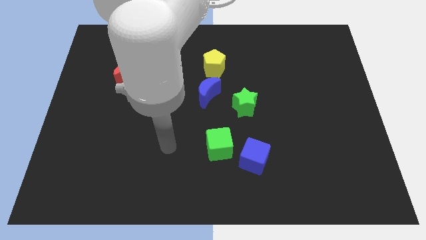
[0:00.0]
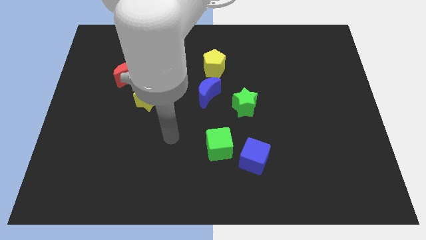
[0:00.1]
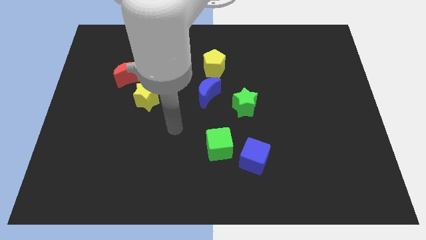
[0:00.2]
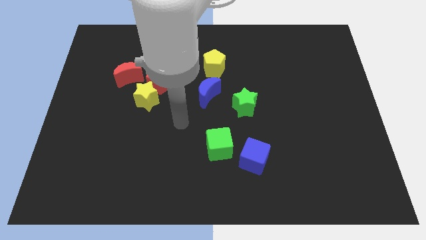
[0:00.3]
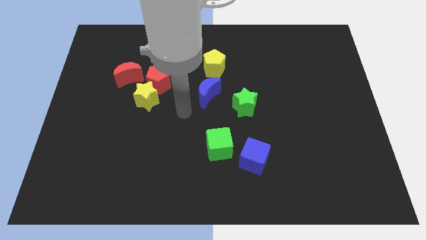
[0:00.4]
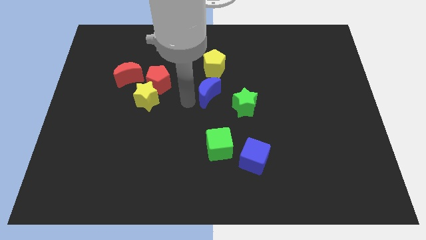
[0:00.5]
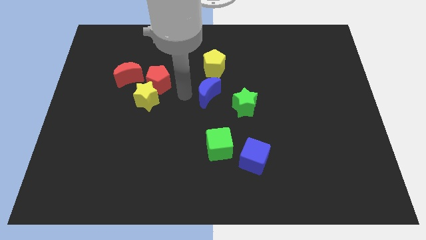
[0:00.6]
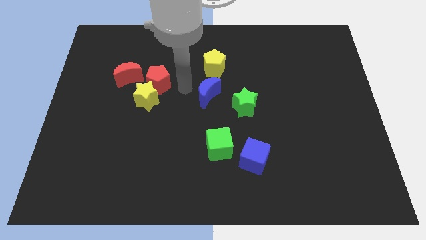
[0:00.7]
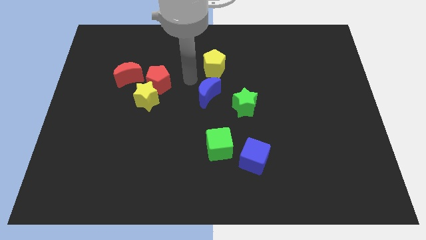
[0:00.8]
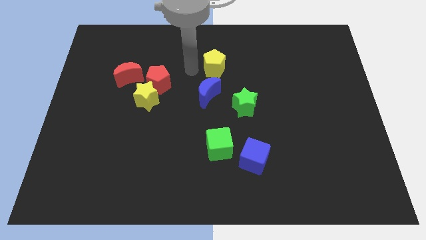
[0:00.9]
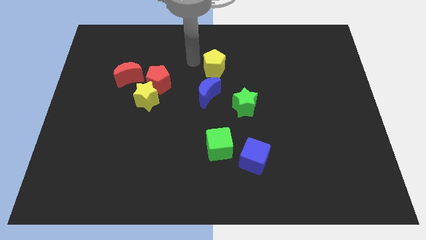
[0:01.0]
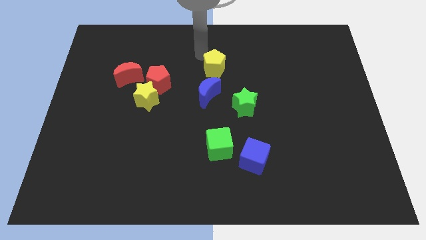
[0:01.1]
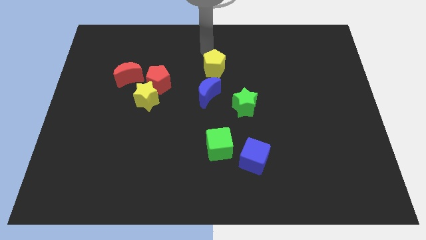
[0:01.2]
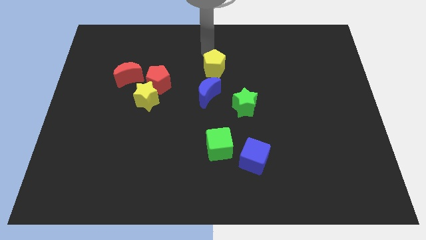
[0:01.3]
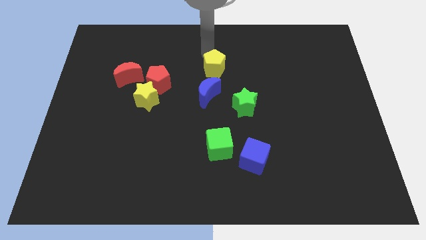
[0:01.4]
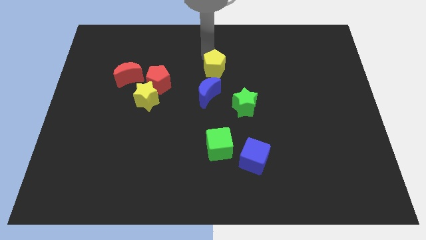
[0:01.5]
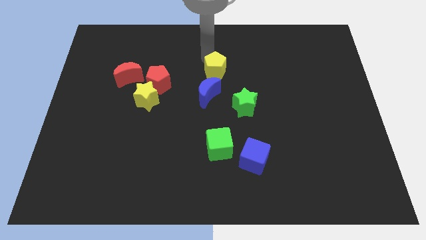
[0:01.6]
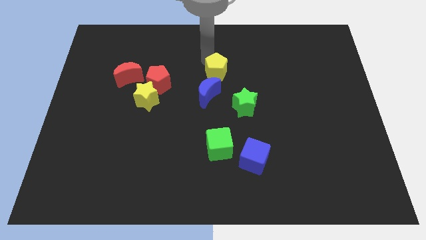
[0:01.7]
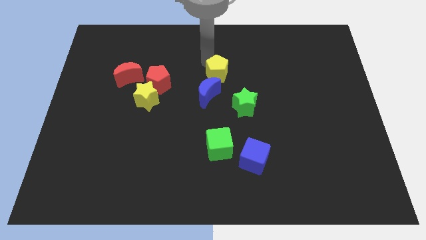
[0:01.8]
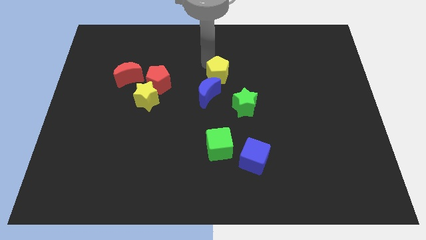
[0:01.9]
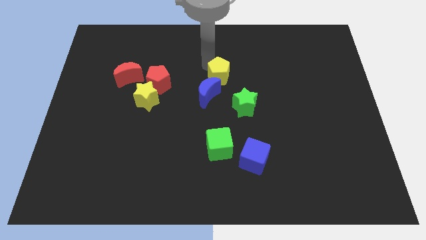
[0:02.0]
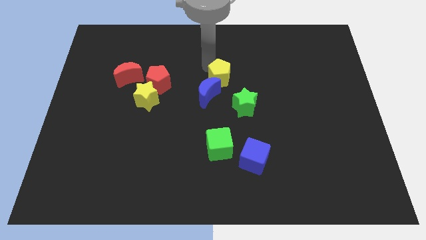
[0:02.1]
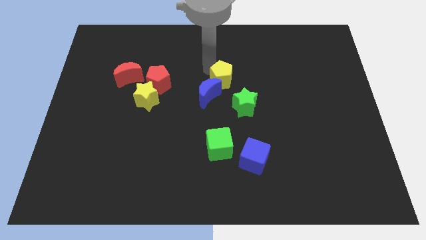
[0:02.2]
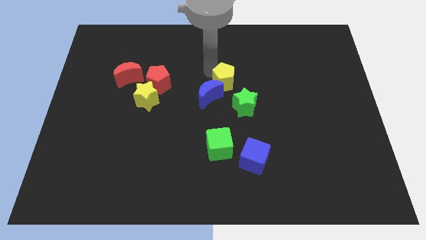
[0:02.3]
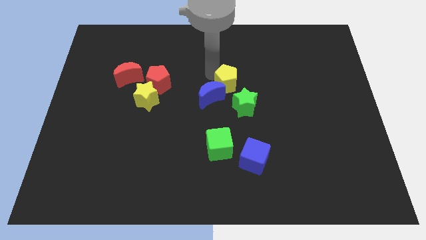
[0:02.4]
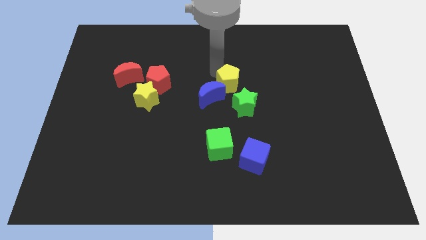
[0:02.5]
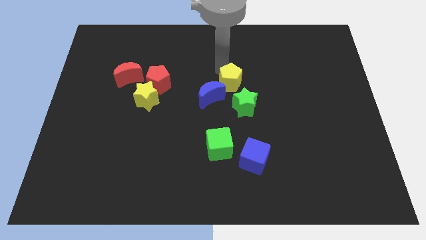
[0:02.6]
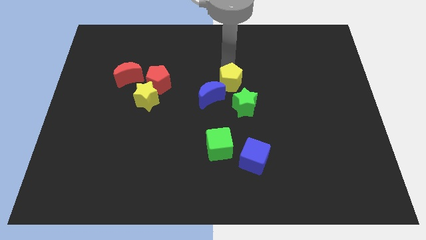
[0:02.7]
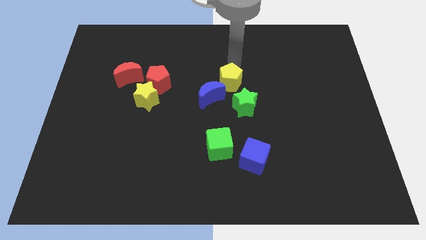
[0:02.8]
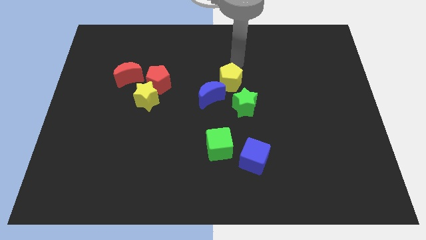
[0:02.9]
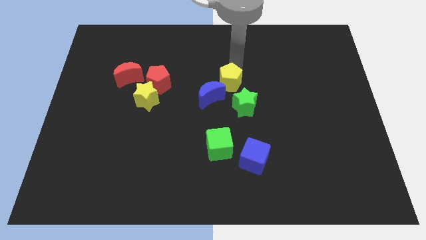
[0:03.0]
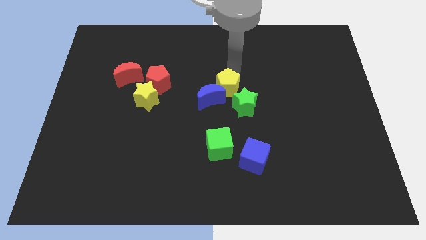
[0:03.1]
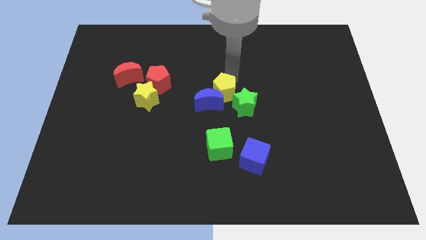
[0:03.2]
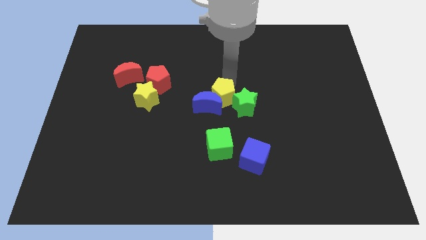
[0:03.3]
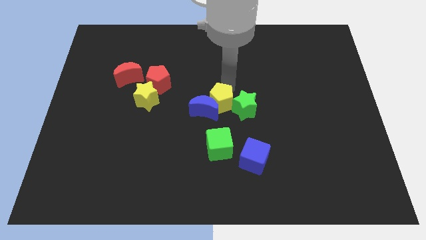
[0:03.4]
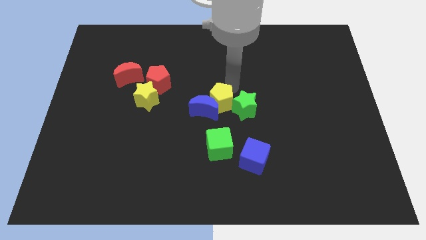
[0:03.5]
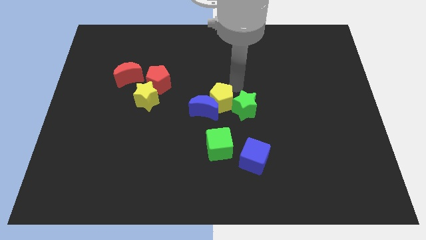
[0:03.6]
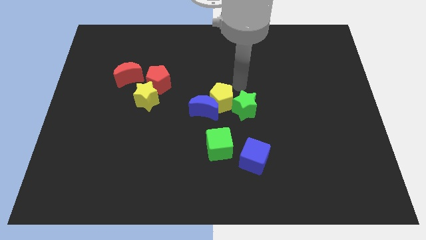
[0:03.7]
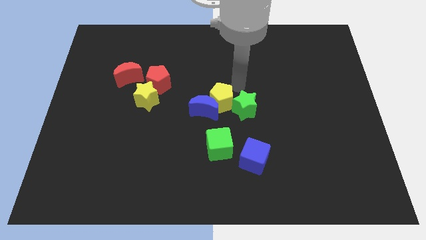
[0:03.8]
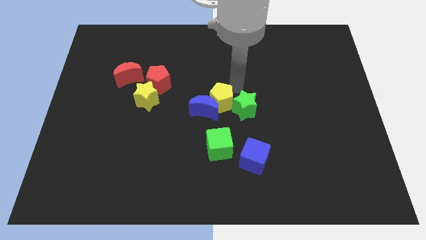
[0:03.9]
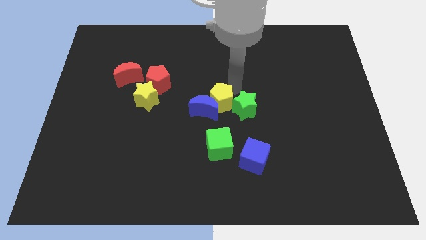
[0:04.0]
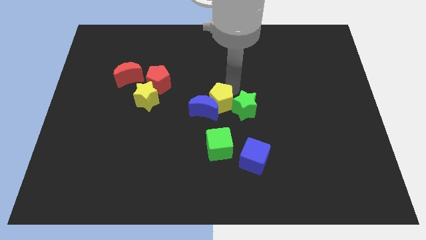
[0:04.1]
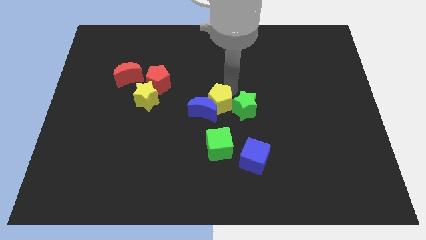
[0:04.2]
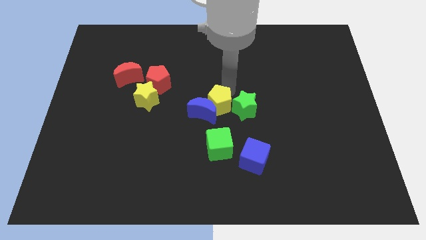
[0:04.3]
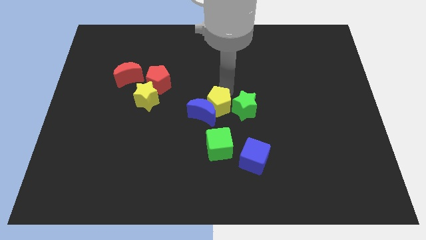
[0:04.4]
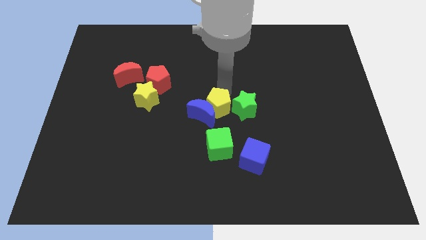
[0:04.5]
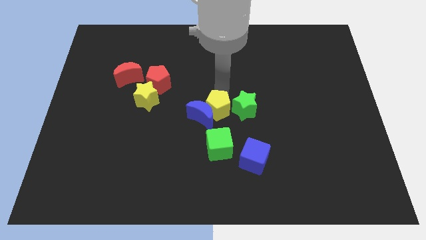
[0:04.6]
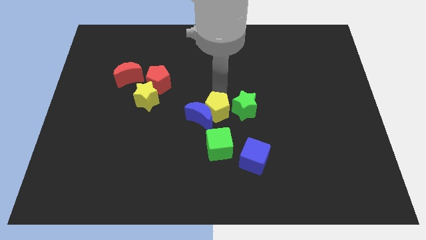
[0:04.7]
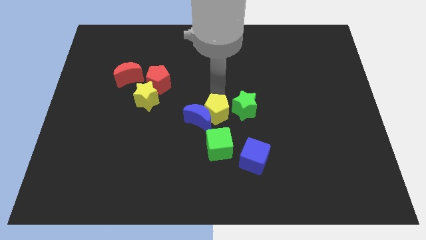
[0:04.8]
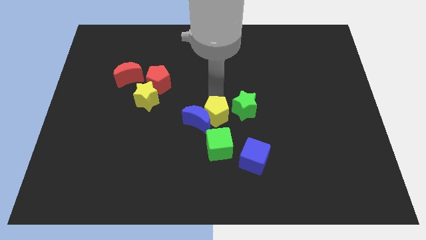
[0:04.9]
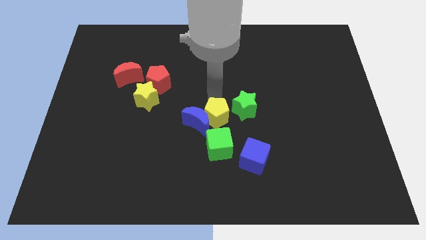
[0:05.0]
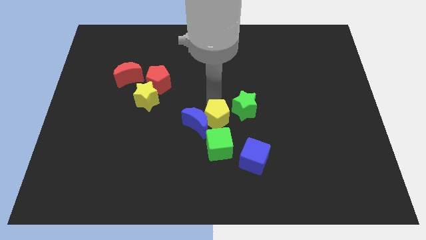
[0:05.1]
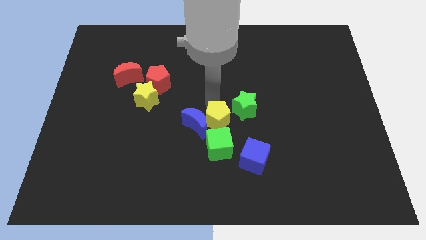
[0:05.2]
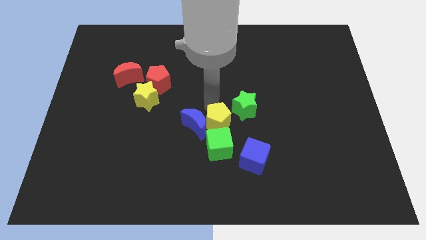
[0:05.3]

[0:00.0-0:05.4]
put the yellow pentagon to the top right of the green cube

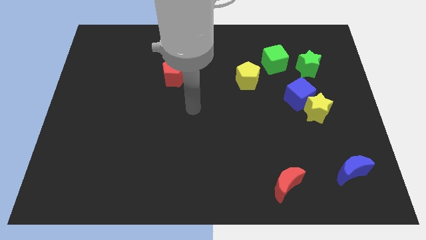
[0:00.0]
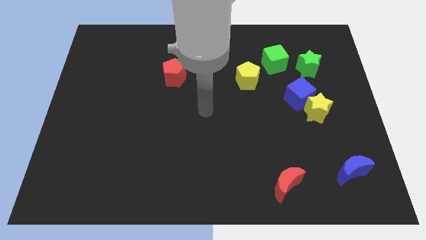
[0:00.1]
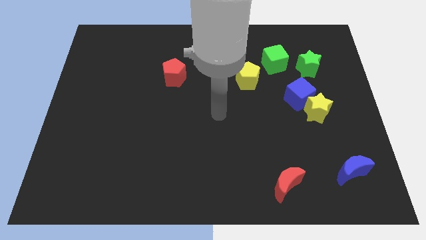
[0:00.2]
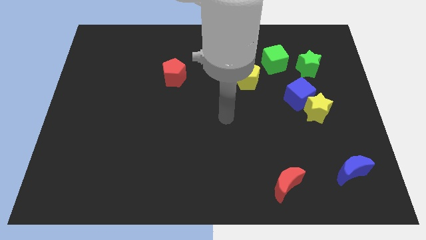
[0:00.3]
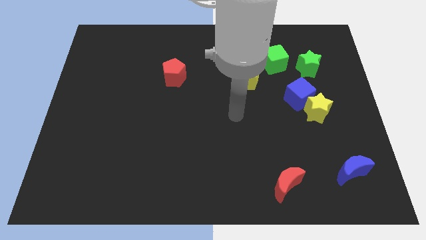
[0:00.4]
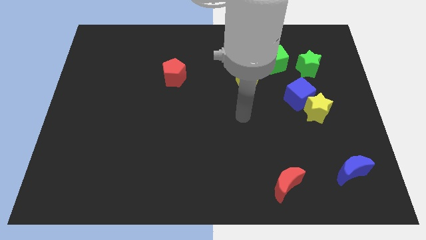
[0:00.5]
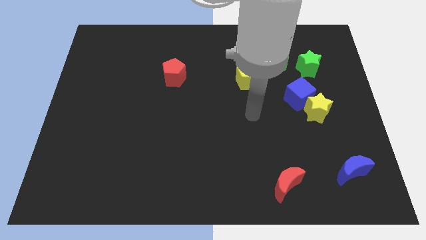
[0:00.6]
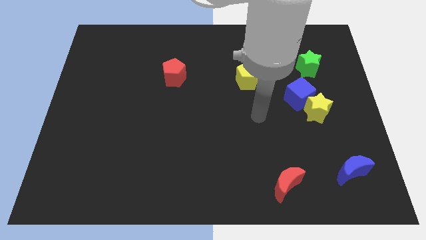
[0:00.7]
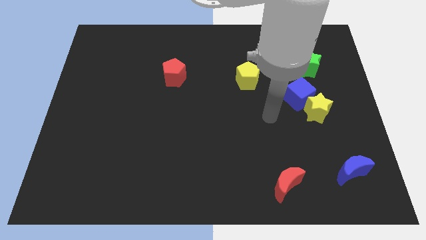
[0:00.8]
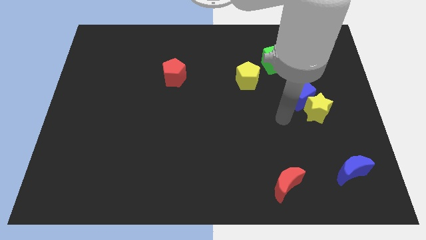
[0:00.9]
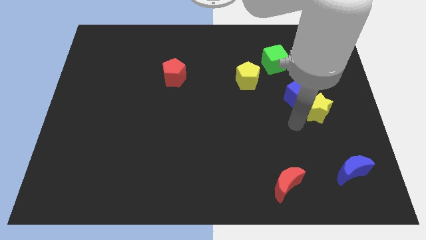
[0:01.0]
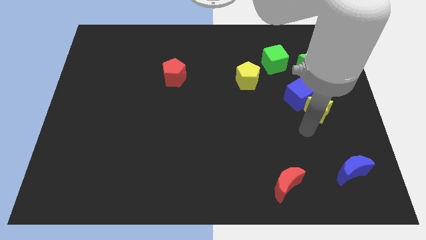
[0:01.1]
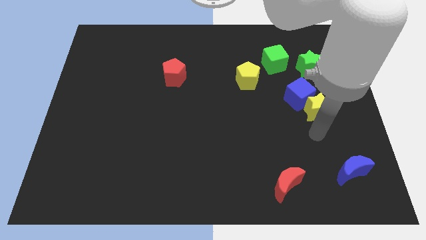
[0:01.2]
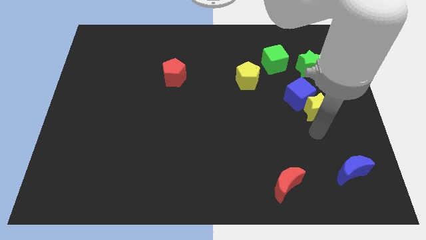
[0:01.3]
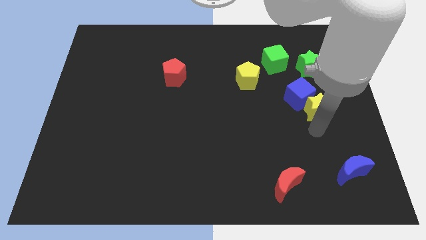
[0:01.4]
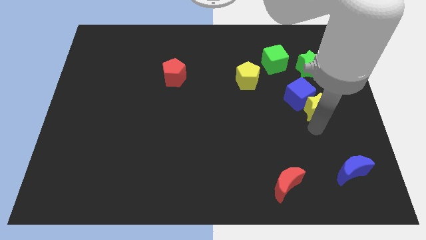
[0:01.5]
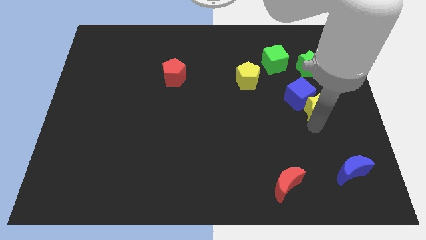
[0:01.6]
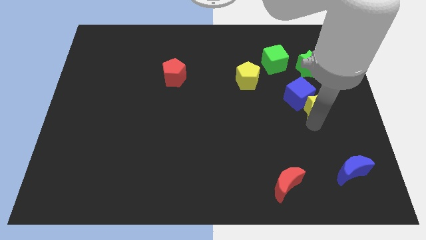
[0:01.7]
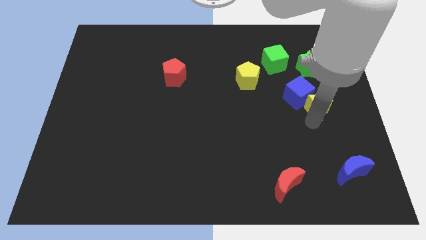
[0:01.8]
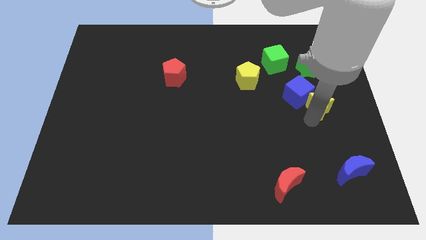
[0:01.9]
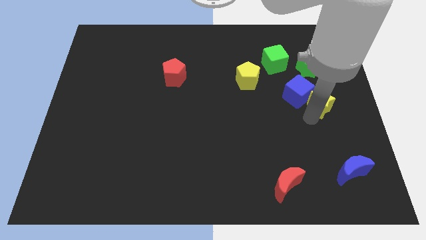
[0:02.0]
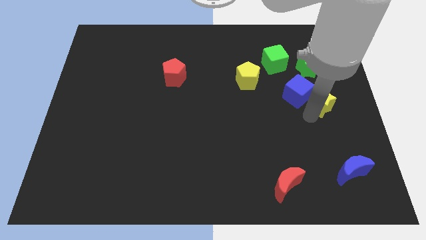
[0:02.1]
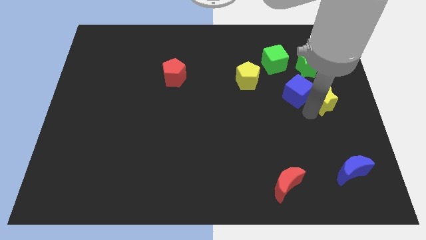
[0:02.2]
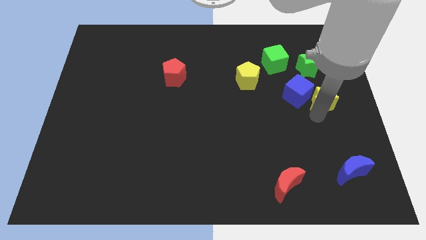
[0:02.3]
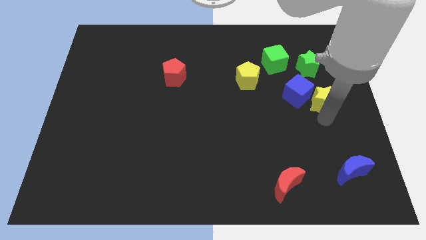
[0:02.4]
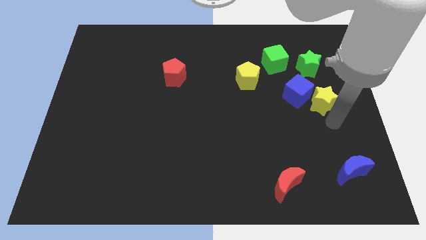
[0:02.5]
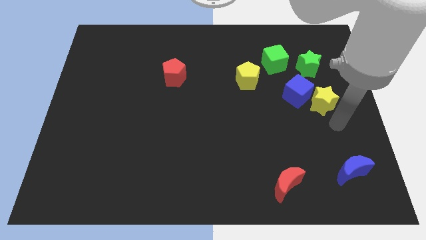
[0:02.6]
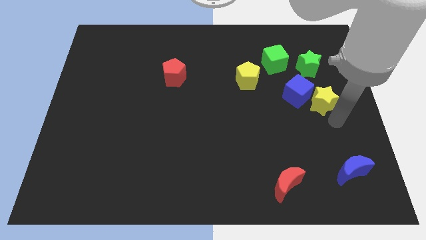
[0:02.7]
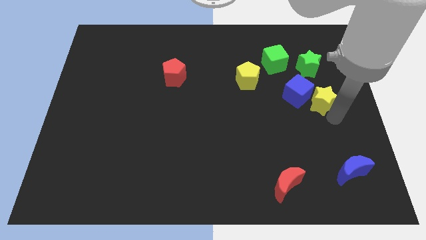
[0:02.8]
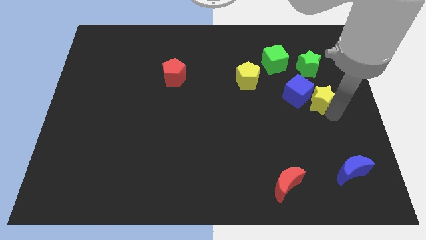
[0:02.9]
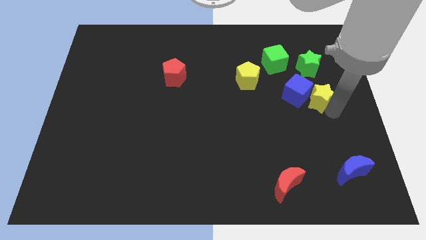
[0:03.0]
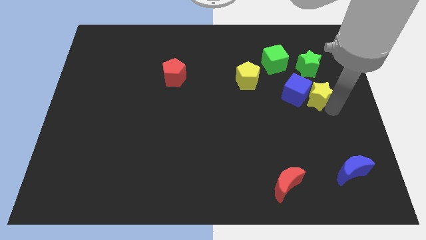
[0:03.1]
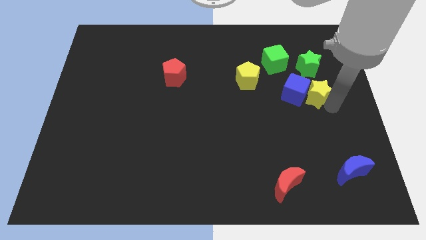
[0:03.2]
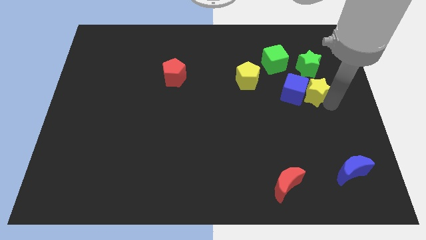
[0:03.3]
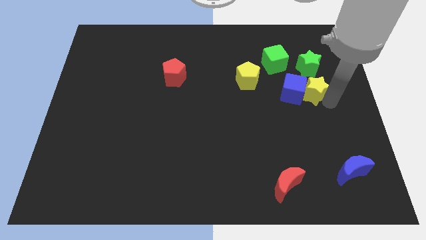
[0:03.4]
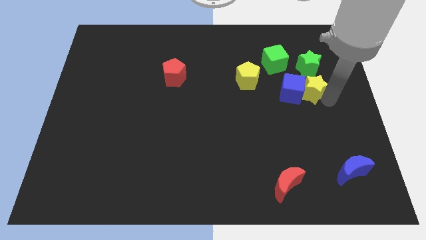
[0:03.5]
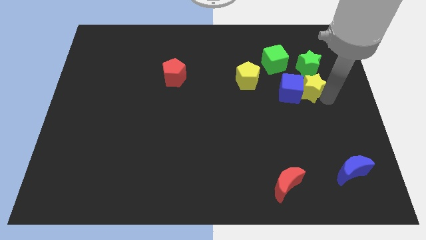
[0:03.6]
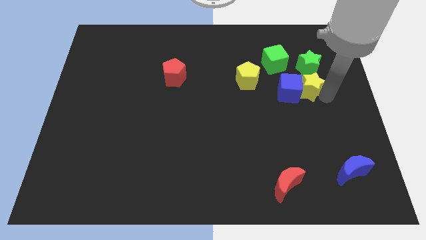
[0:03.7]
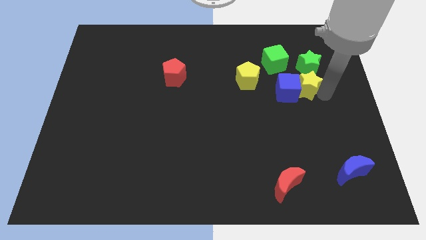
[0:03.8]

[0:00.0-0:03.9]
move the yellow star to the bottom left side of the green star
